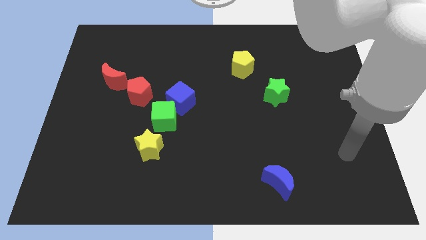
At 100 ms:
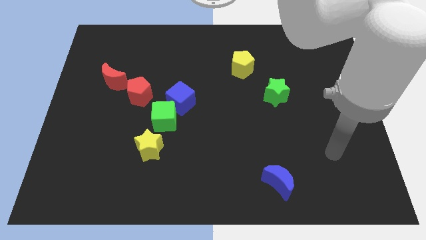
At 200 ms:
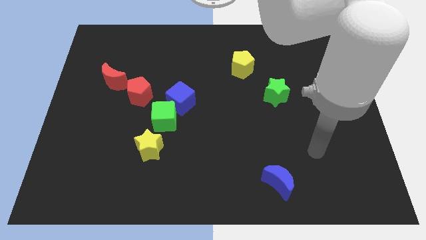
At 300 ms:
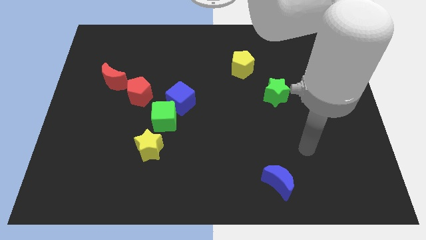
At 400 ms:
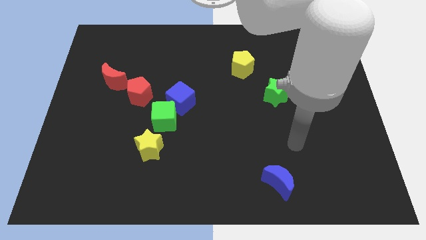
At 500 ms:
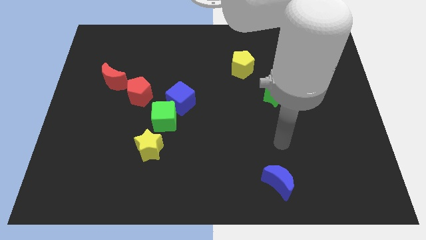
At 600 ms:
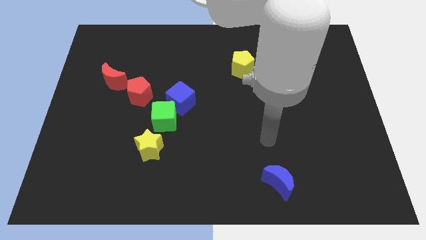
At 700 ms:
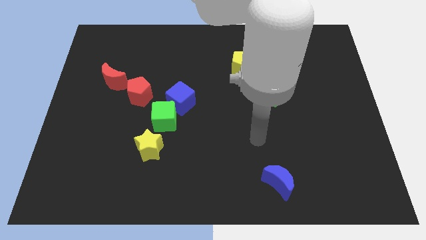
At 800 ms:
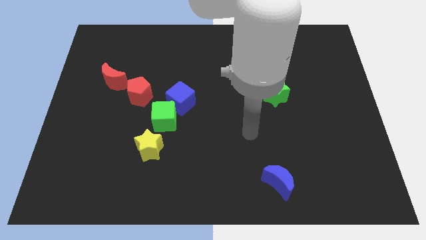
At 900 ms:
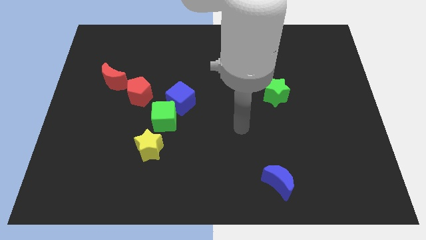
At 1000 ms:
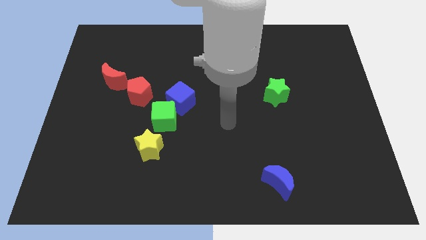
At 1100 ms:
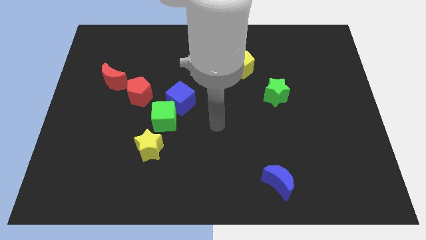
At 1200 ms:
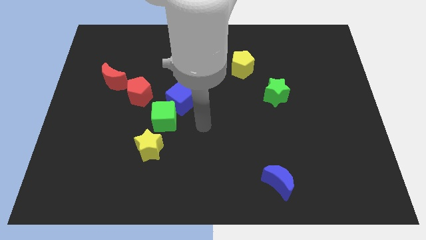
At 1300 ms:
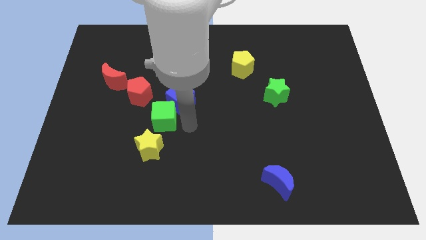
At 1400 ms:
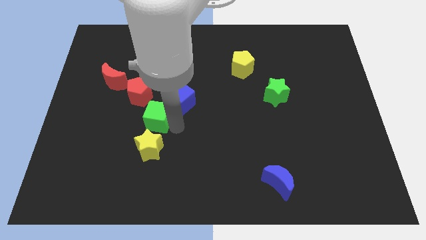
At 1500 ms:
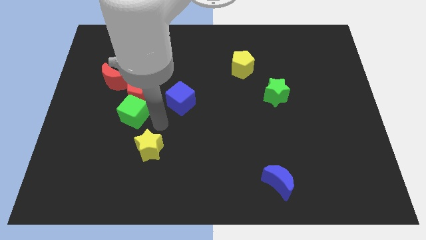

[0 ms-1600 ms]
move the yellow star away from the green cube

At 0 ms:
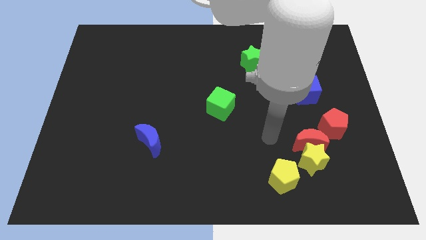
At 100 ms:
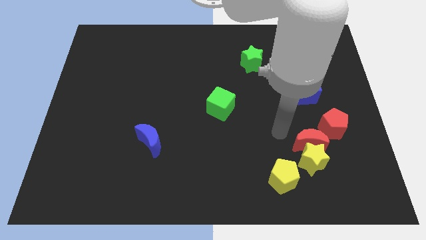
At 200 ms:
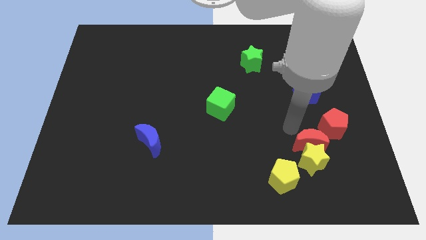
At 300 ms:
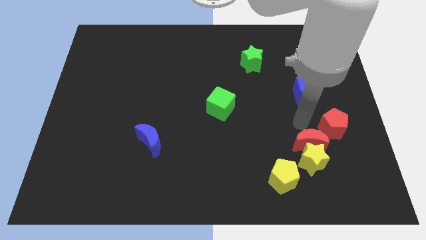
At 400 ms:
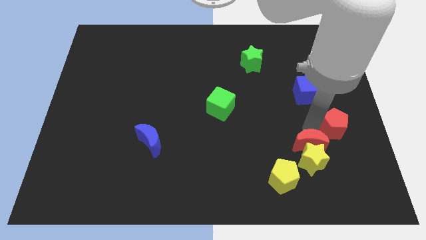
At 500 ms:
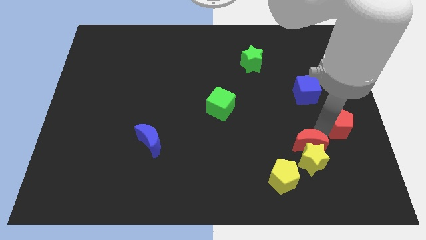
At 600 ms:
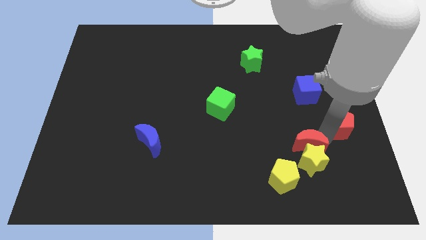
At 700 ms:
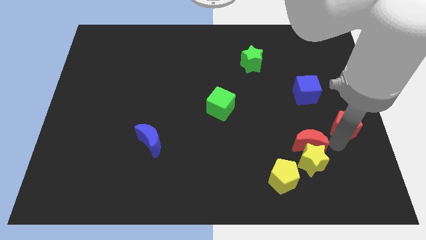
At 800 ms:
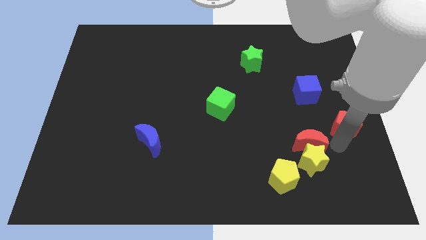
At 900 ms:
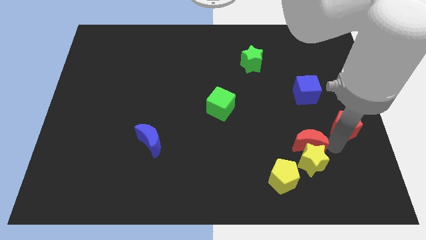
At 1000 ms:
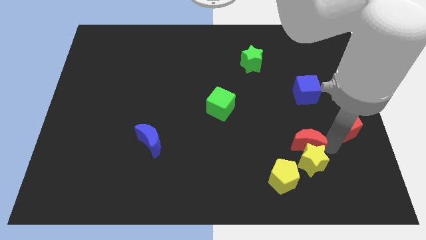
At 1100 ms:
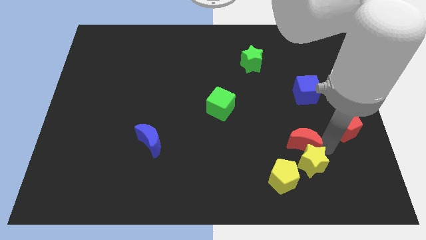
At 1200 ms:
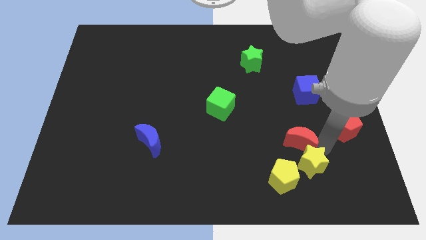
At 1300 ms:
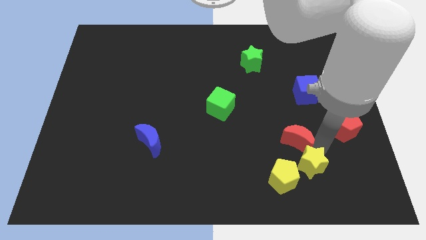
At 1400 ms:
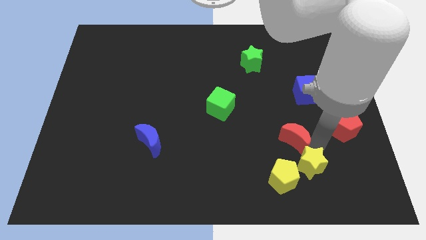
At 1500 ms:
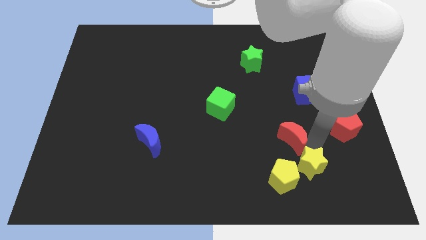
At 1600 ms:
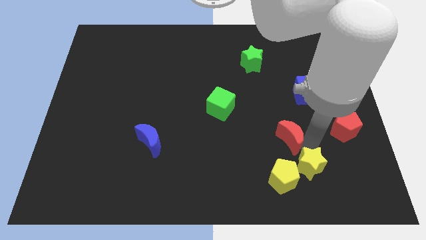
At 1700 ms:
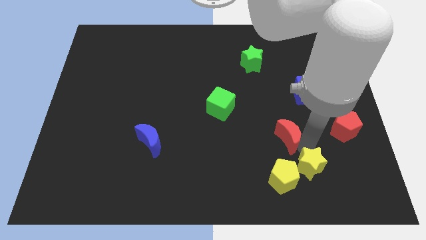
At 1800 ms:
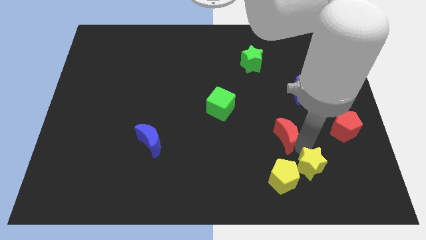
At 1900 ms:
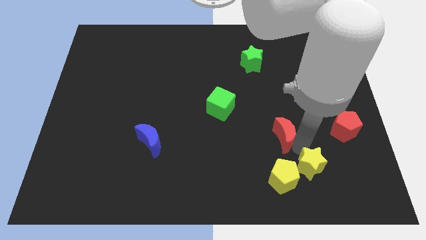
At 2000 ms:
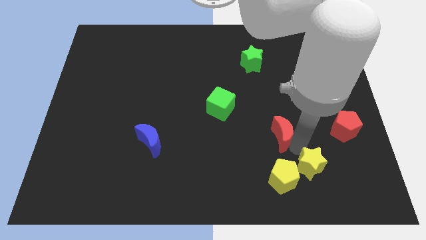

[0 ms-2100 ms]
move the red moon away from the yellow star and red pentagon

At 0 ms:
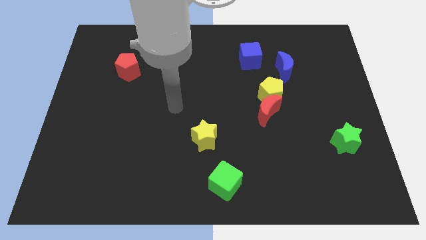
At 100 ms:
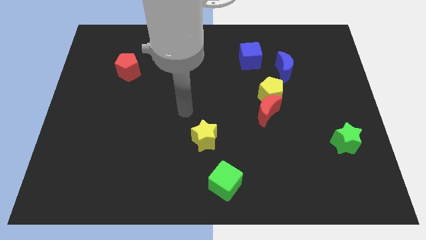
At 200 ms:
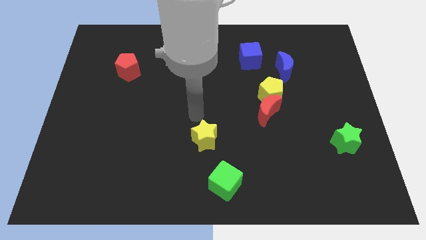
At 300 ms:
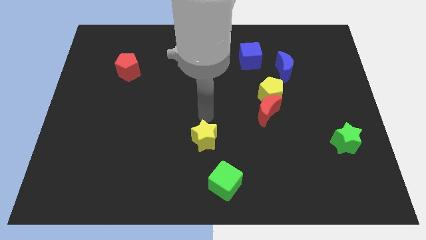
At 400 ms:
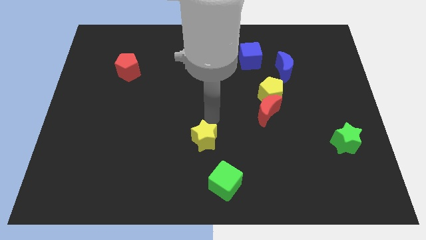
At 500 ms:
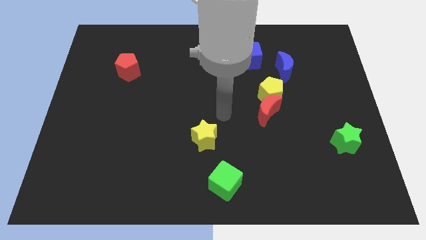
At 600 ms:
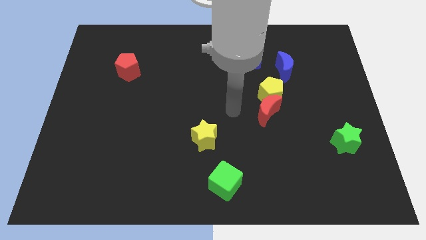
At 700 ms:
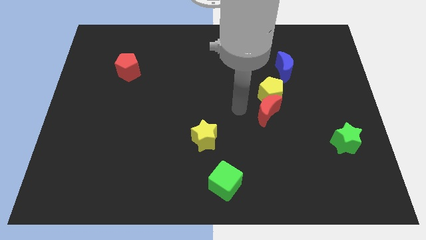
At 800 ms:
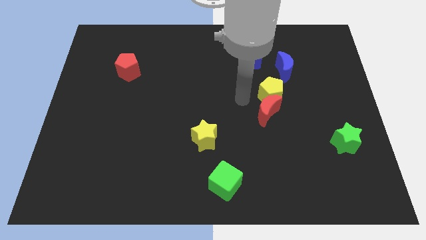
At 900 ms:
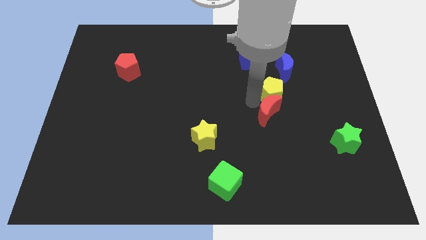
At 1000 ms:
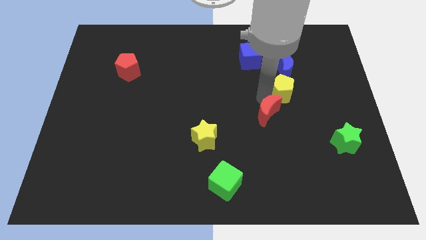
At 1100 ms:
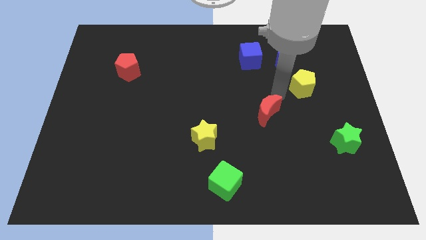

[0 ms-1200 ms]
pull the red moon apart from the yellow pentagon

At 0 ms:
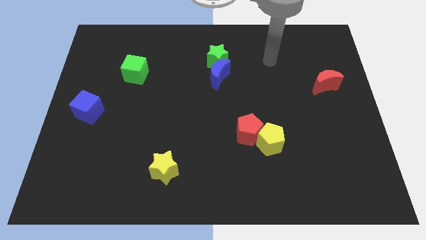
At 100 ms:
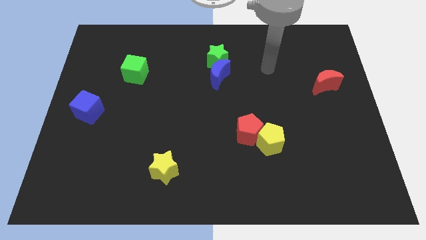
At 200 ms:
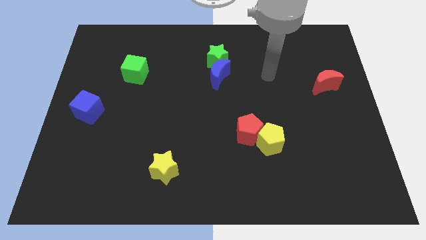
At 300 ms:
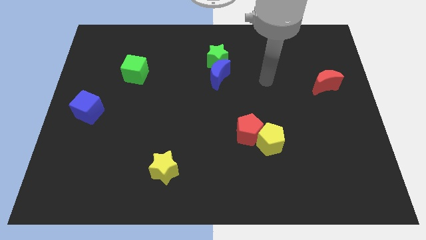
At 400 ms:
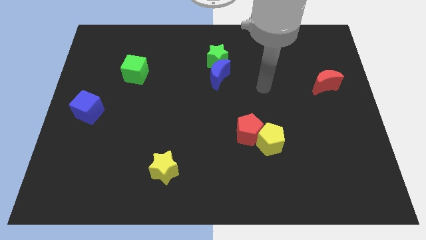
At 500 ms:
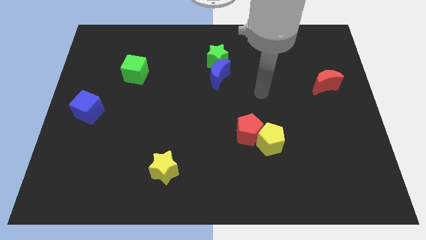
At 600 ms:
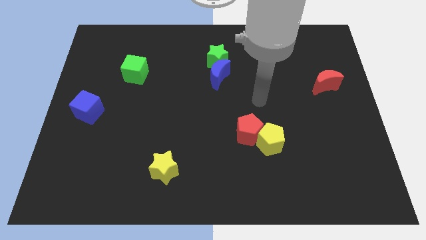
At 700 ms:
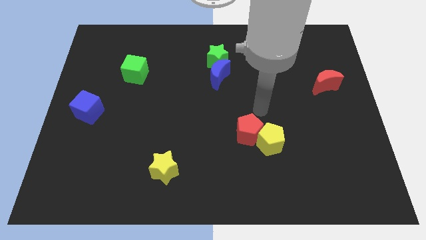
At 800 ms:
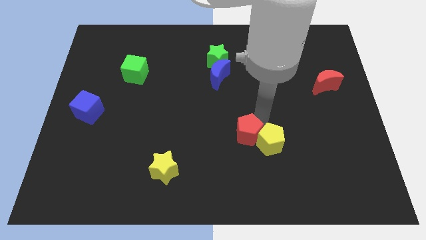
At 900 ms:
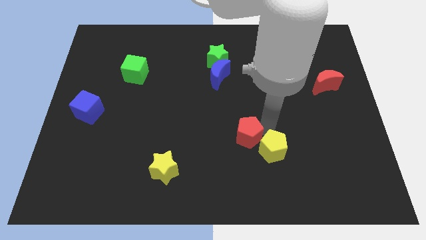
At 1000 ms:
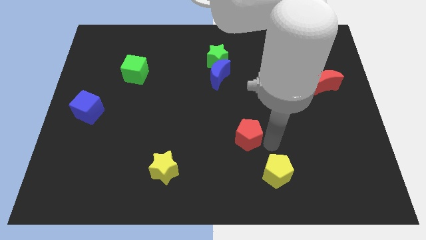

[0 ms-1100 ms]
pull the red pentagon apart from the yellow pentagon

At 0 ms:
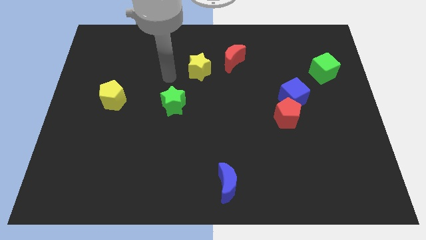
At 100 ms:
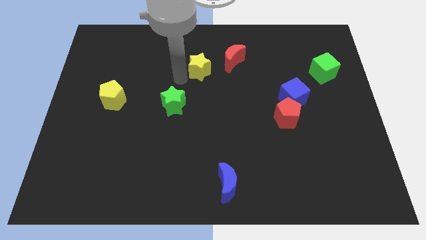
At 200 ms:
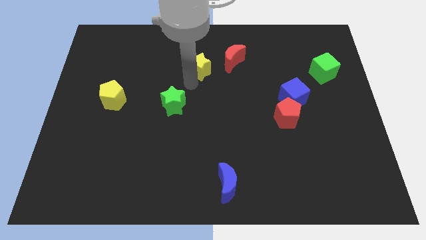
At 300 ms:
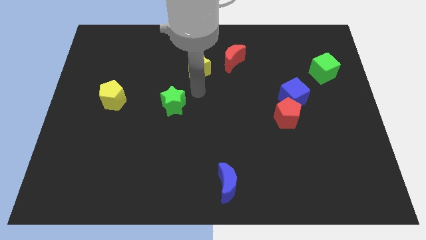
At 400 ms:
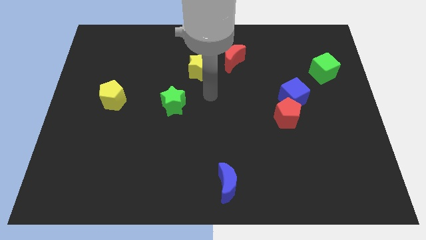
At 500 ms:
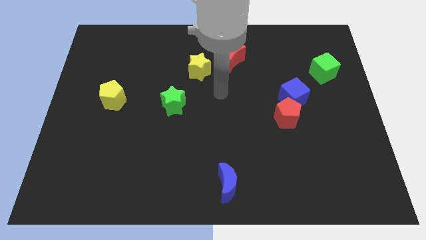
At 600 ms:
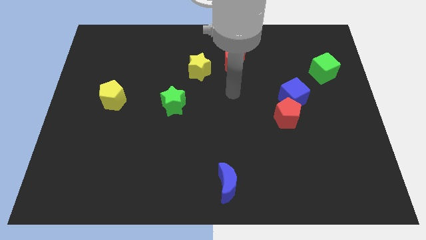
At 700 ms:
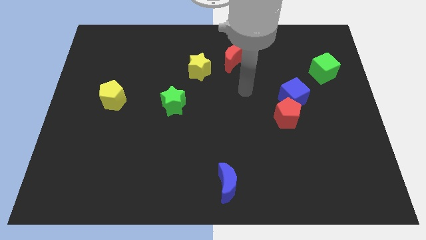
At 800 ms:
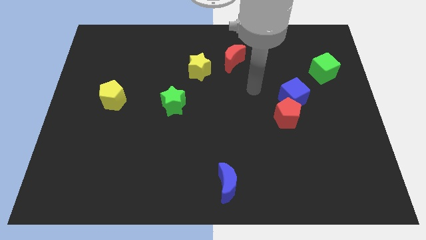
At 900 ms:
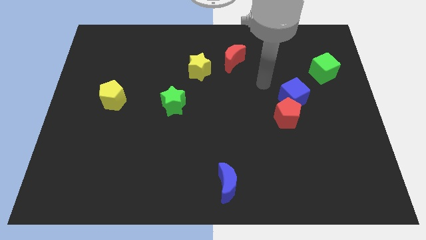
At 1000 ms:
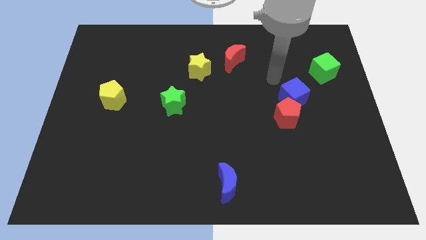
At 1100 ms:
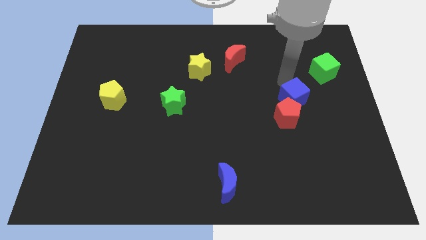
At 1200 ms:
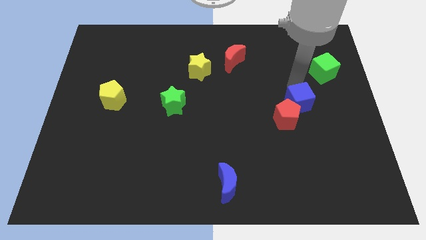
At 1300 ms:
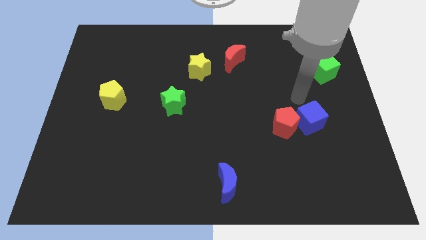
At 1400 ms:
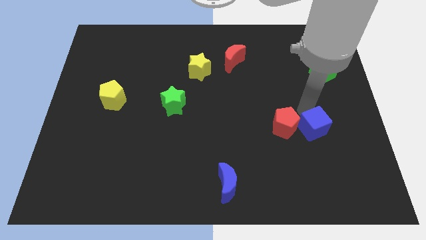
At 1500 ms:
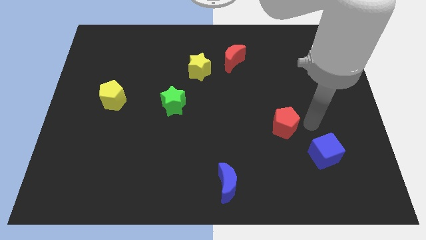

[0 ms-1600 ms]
pull the red pentagon apart from the blue cube

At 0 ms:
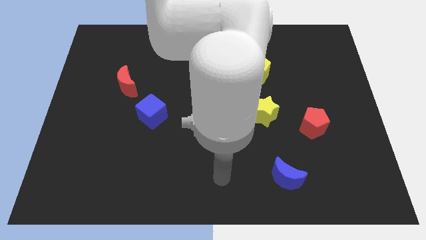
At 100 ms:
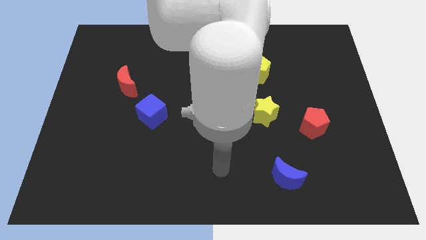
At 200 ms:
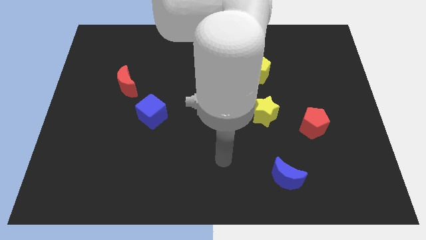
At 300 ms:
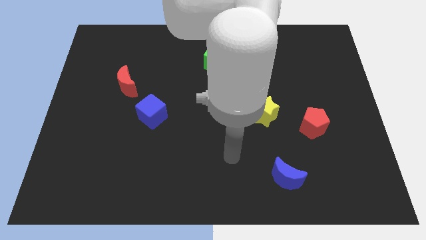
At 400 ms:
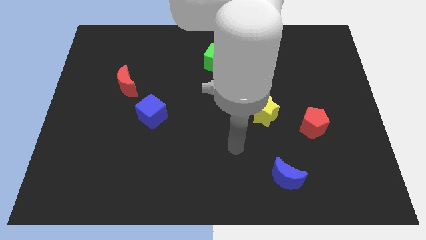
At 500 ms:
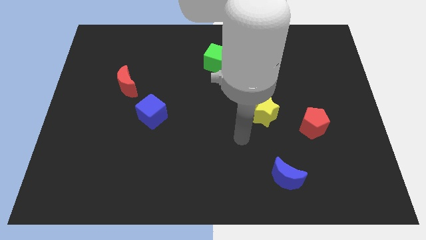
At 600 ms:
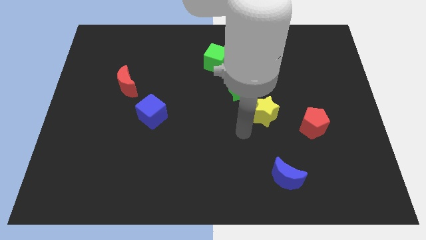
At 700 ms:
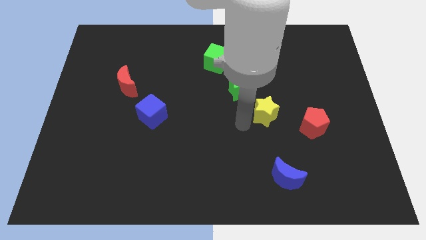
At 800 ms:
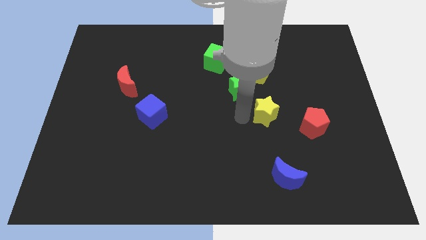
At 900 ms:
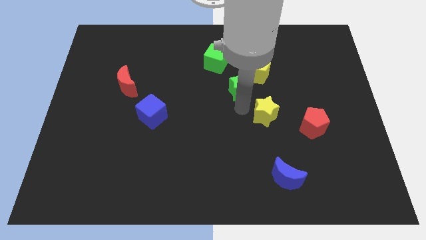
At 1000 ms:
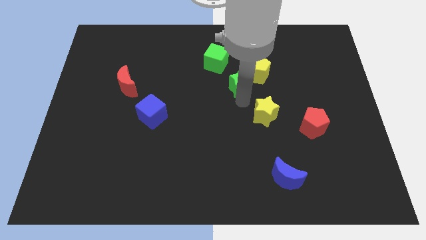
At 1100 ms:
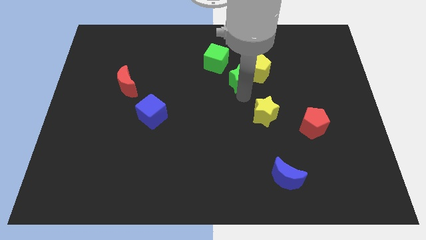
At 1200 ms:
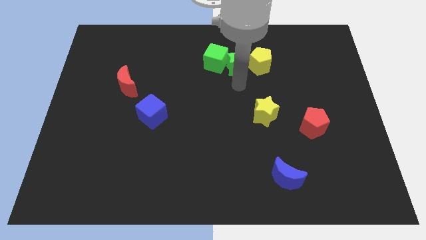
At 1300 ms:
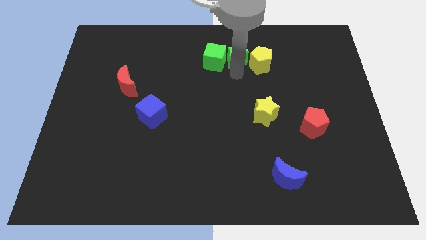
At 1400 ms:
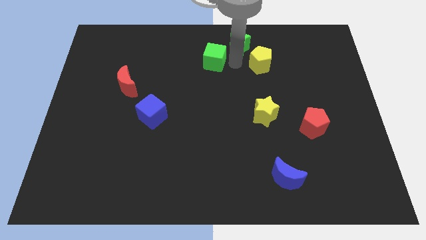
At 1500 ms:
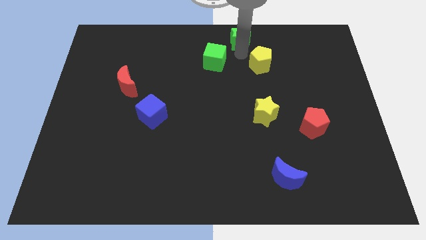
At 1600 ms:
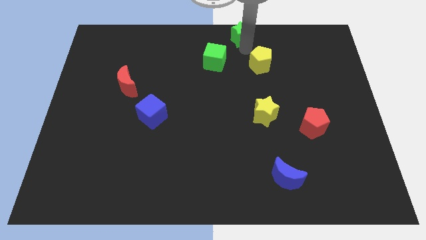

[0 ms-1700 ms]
move the yellow pentagon away from the green star
